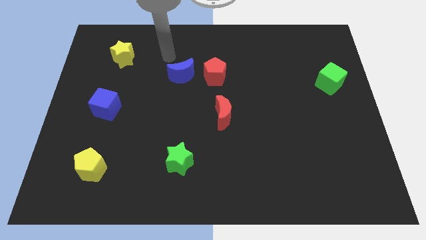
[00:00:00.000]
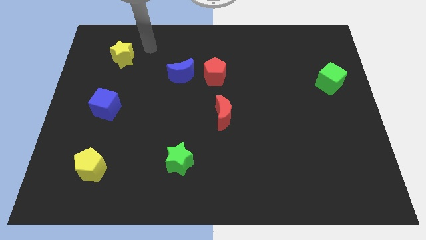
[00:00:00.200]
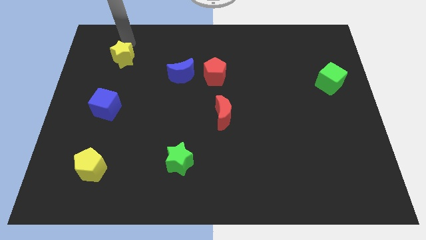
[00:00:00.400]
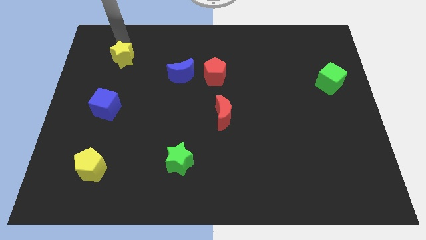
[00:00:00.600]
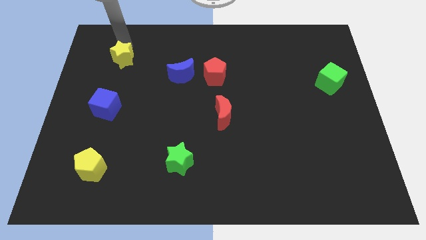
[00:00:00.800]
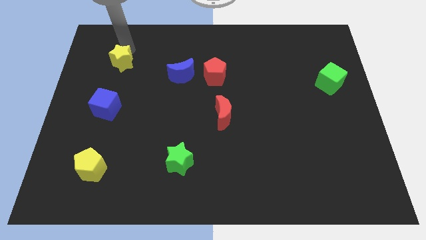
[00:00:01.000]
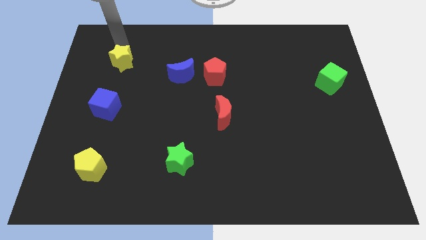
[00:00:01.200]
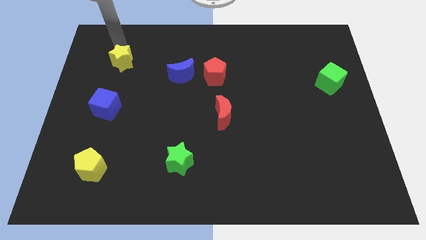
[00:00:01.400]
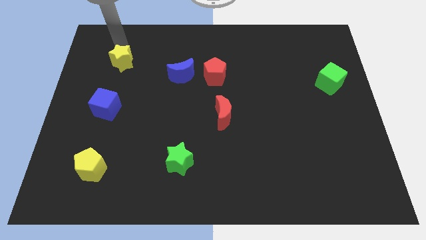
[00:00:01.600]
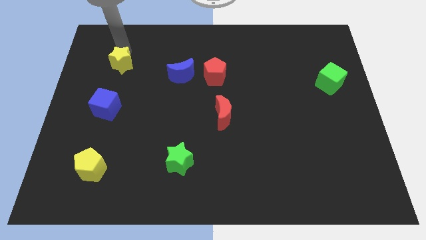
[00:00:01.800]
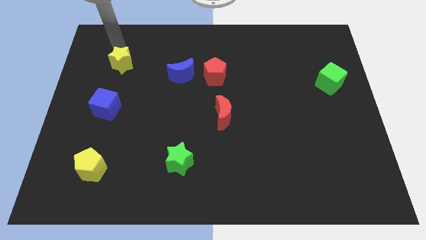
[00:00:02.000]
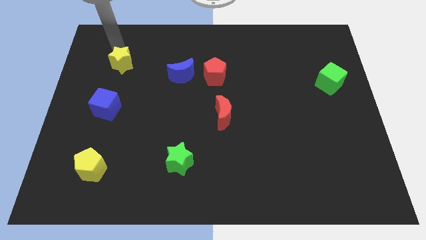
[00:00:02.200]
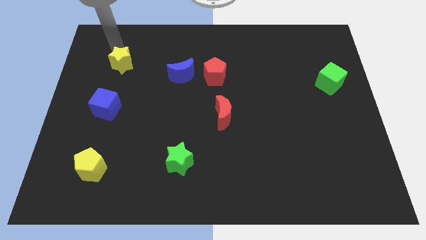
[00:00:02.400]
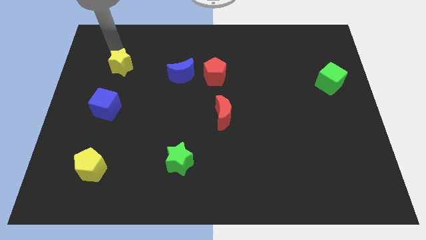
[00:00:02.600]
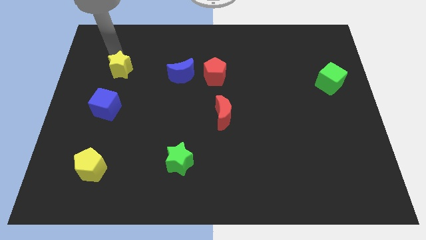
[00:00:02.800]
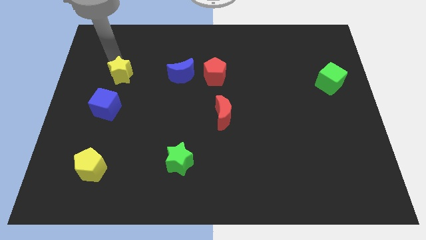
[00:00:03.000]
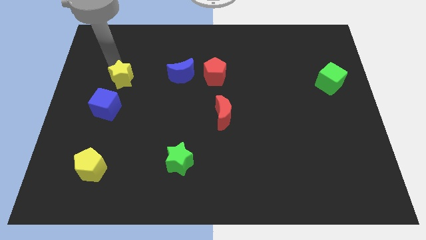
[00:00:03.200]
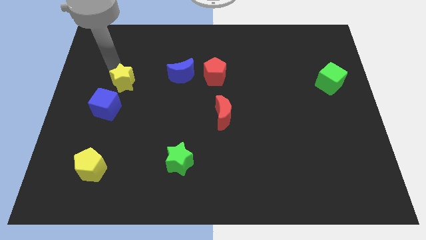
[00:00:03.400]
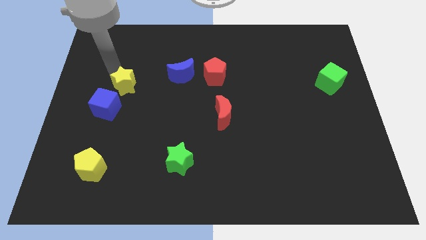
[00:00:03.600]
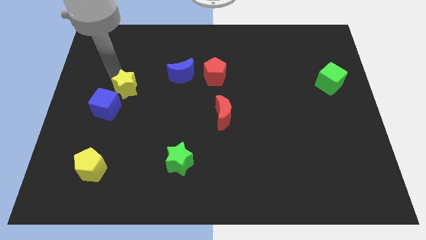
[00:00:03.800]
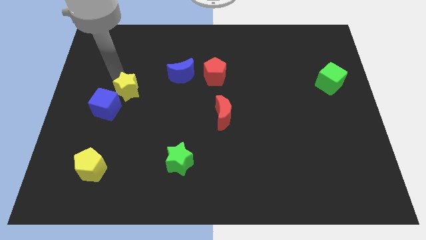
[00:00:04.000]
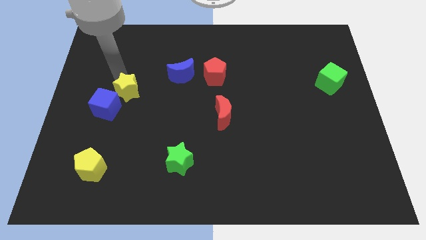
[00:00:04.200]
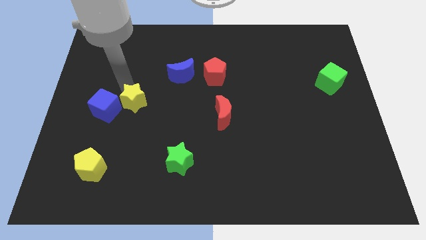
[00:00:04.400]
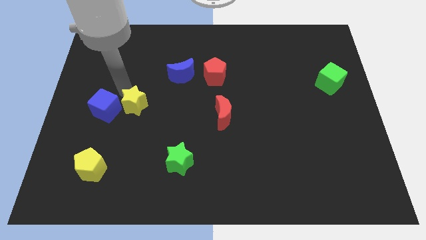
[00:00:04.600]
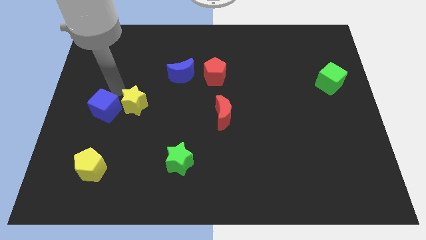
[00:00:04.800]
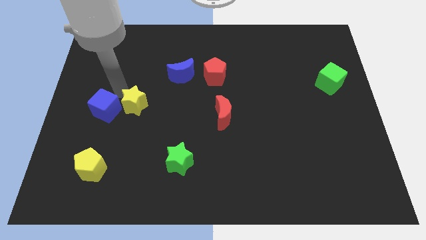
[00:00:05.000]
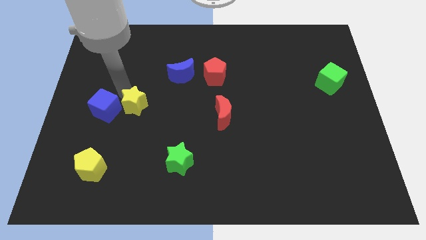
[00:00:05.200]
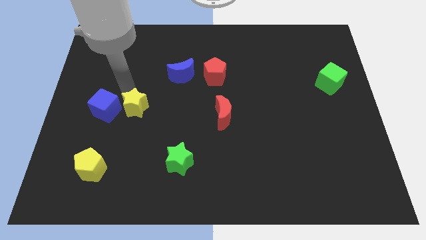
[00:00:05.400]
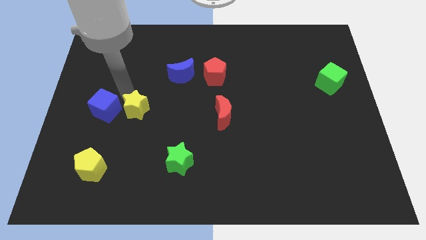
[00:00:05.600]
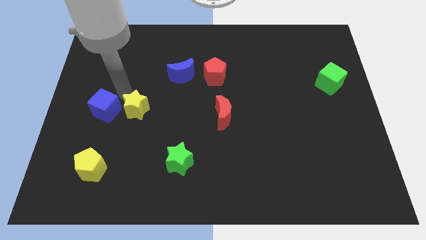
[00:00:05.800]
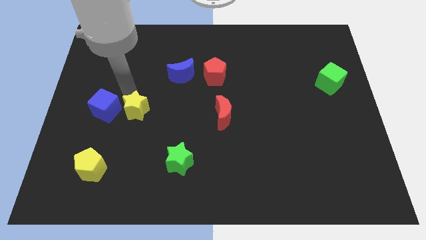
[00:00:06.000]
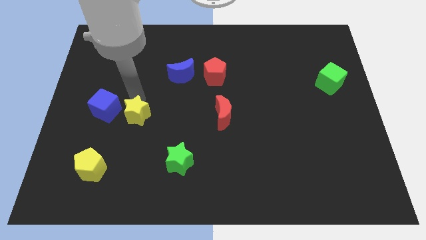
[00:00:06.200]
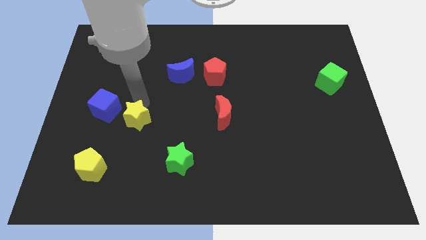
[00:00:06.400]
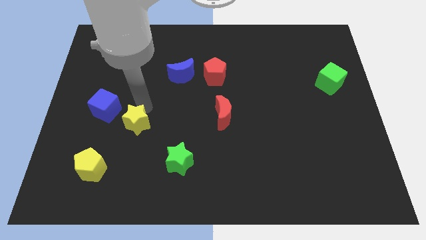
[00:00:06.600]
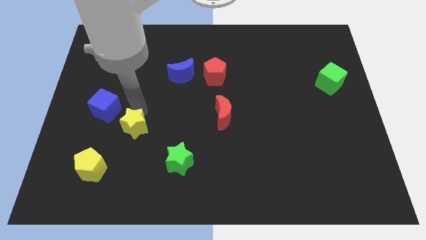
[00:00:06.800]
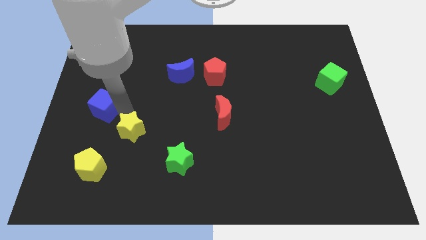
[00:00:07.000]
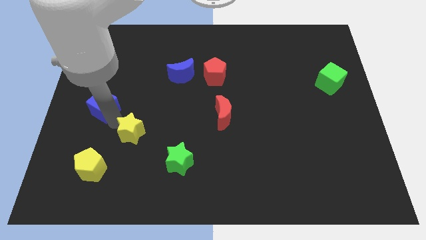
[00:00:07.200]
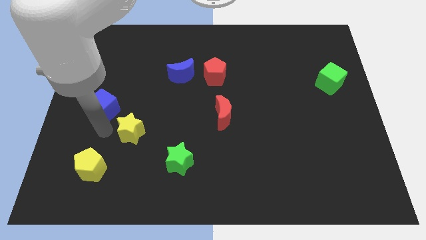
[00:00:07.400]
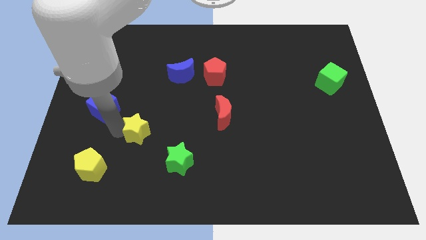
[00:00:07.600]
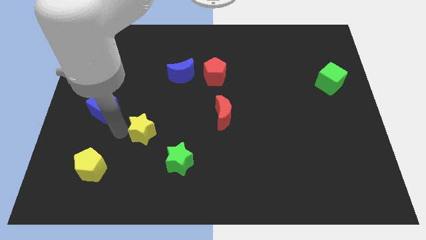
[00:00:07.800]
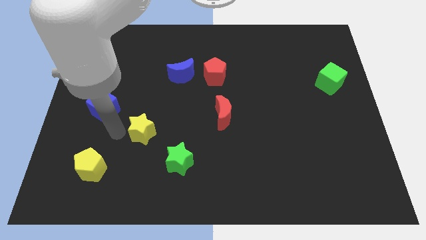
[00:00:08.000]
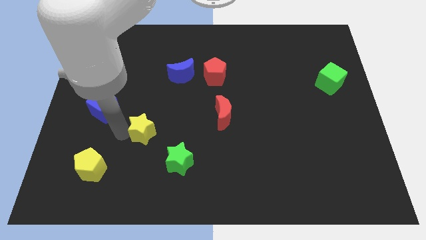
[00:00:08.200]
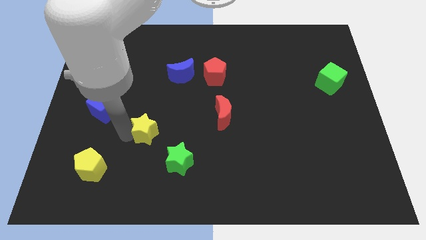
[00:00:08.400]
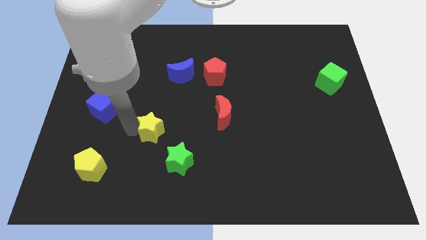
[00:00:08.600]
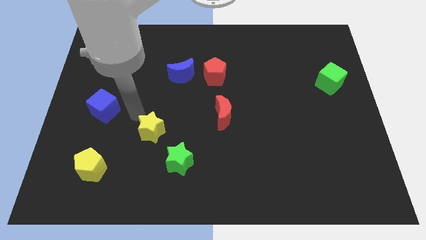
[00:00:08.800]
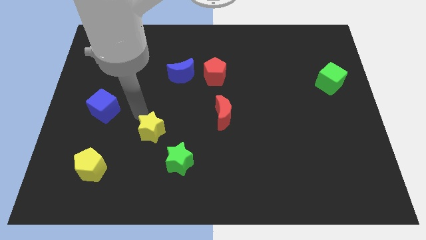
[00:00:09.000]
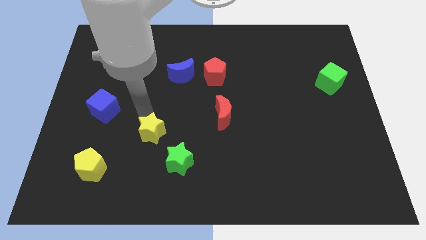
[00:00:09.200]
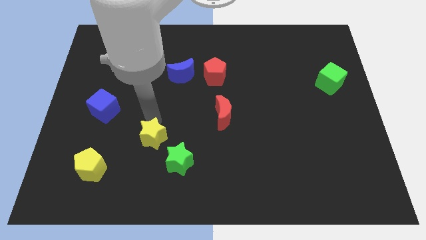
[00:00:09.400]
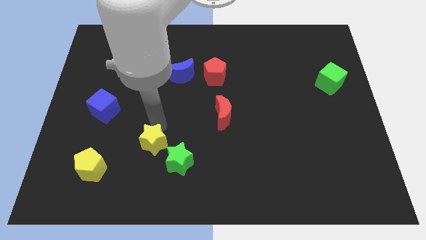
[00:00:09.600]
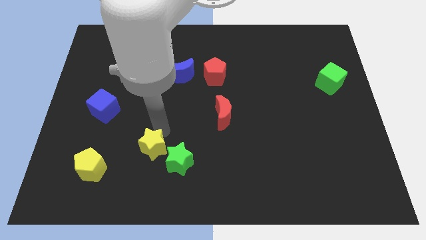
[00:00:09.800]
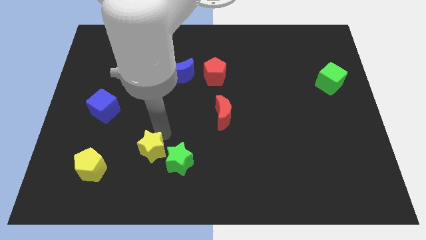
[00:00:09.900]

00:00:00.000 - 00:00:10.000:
put the yellow star to the green star

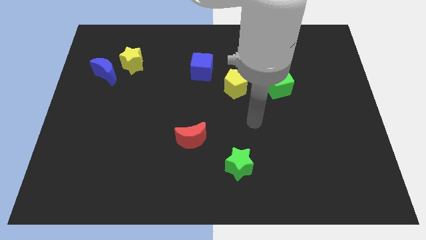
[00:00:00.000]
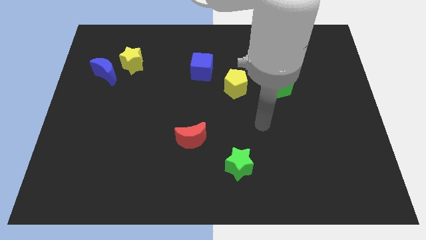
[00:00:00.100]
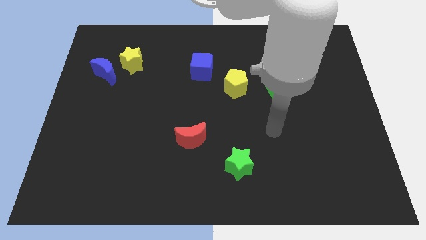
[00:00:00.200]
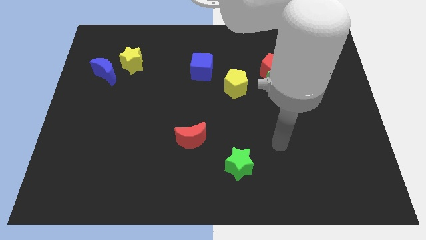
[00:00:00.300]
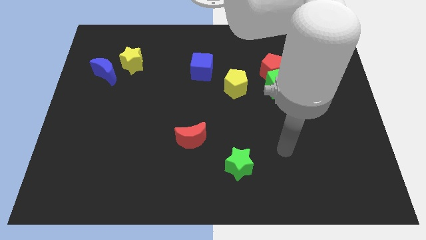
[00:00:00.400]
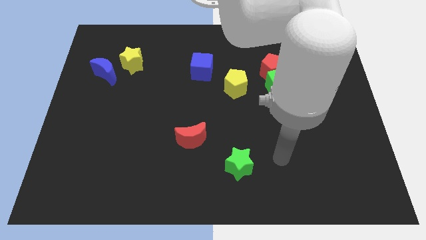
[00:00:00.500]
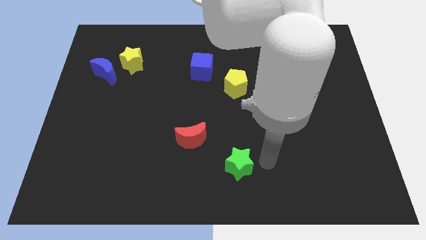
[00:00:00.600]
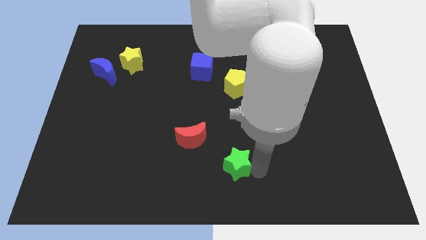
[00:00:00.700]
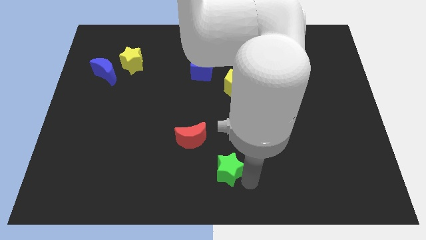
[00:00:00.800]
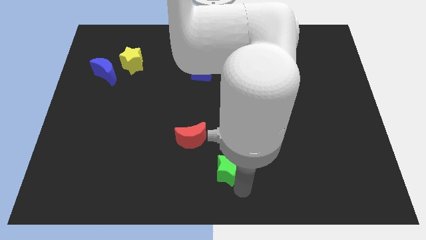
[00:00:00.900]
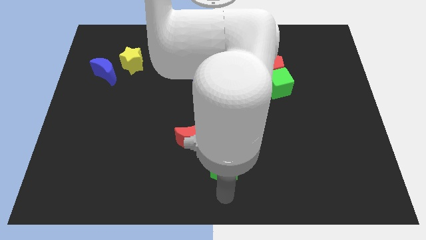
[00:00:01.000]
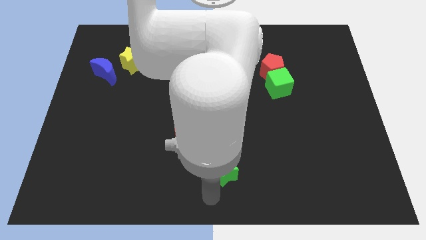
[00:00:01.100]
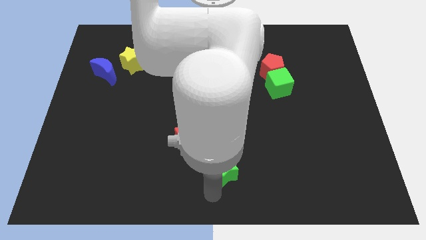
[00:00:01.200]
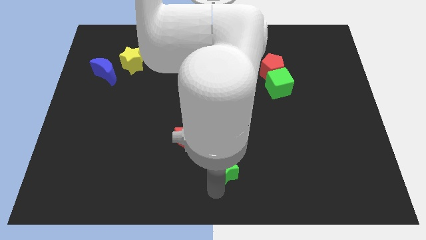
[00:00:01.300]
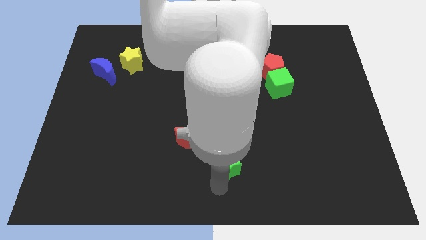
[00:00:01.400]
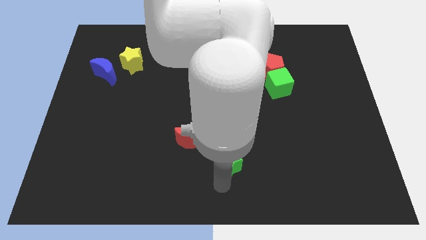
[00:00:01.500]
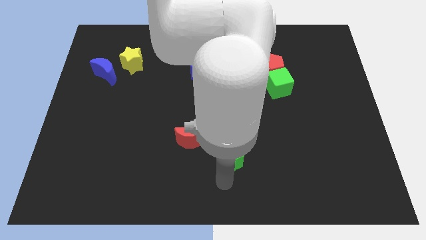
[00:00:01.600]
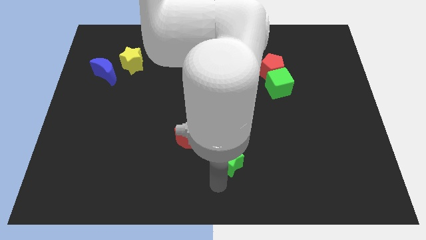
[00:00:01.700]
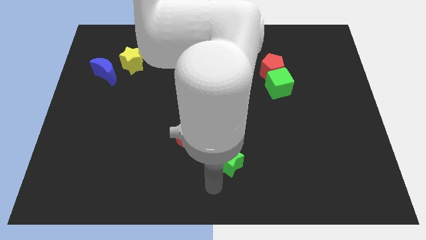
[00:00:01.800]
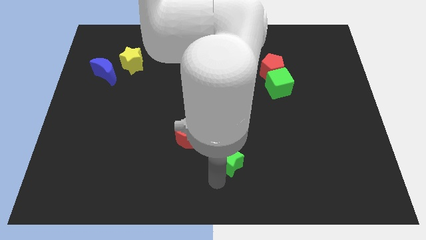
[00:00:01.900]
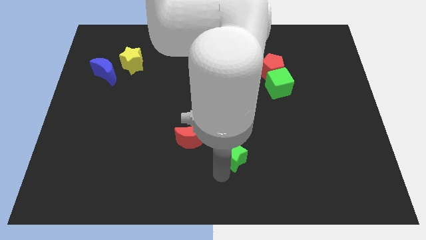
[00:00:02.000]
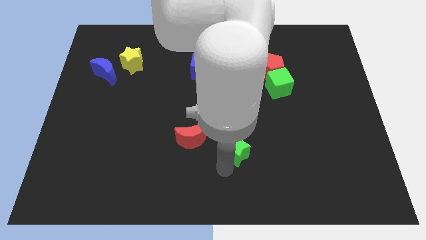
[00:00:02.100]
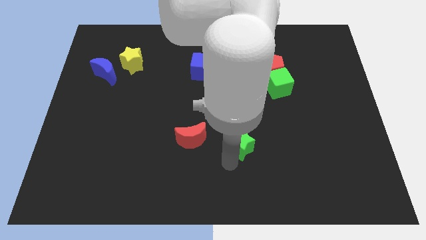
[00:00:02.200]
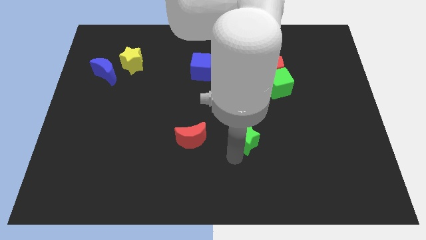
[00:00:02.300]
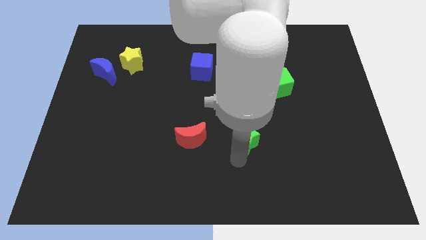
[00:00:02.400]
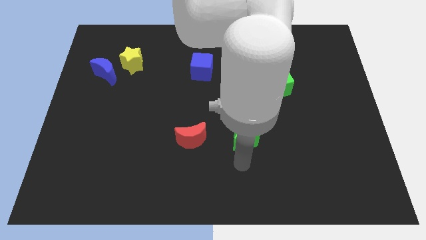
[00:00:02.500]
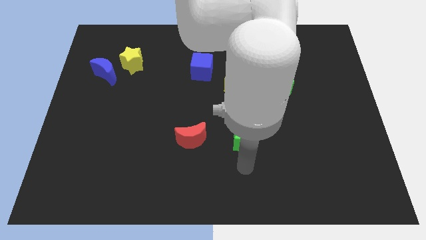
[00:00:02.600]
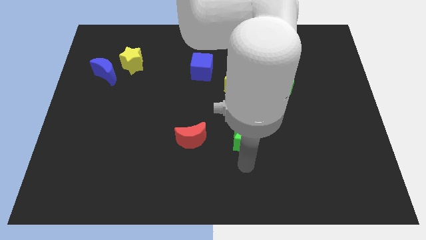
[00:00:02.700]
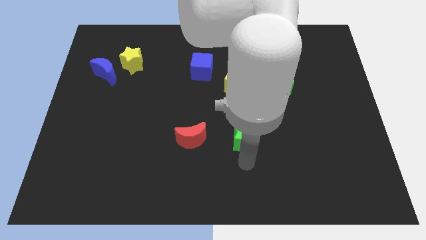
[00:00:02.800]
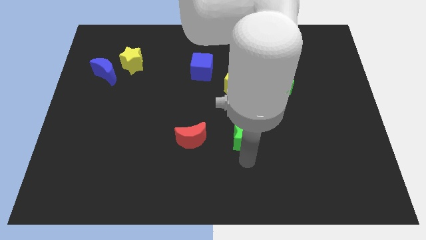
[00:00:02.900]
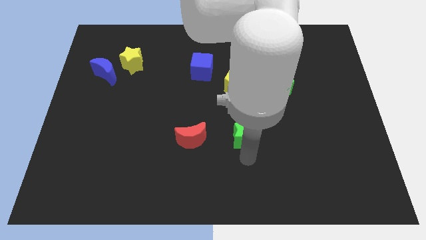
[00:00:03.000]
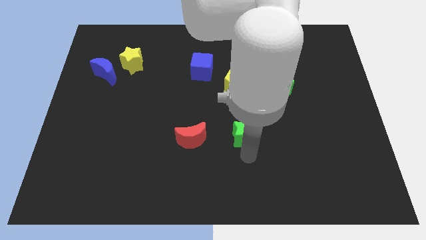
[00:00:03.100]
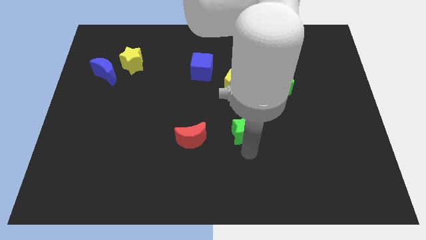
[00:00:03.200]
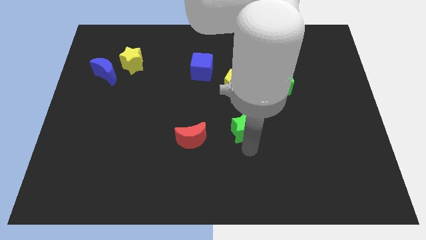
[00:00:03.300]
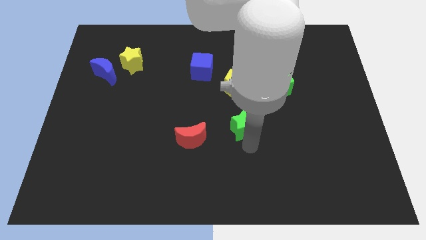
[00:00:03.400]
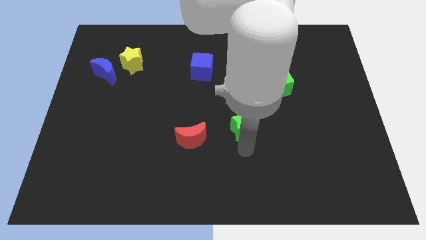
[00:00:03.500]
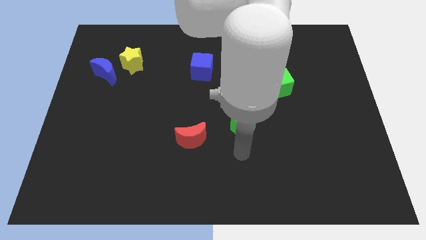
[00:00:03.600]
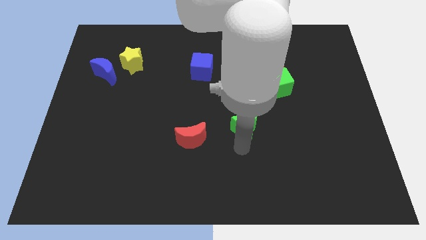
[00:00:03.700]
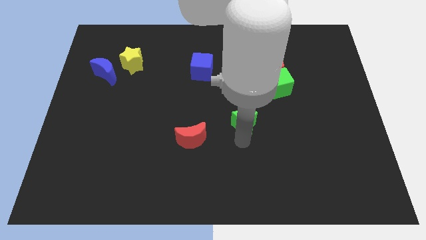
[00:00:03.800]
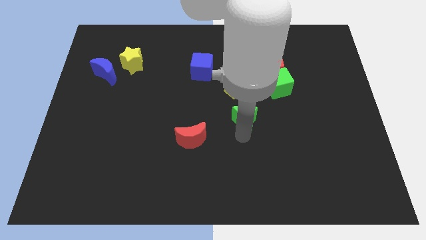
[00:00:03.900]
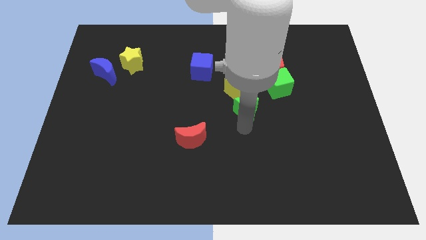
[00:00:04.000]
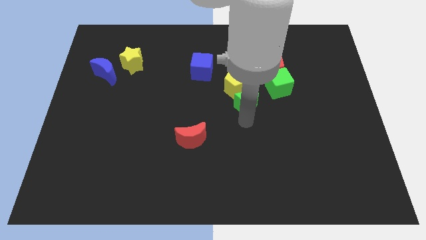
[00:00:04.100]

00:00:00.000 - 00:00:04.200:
put the green star to the yellow pentagon
